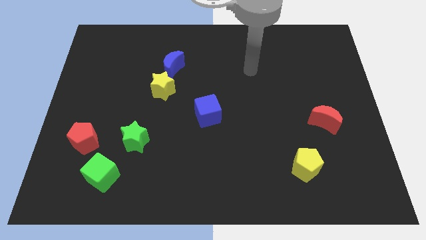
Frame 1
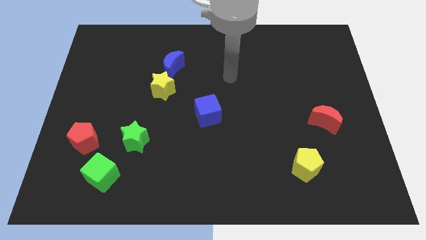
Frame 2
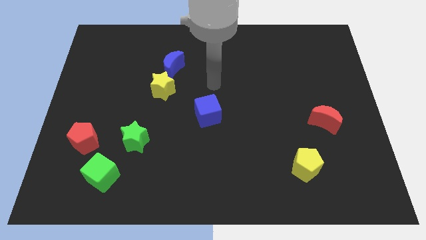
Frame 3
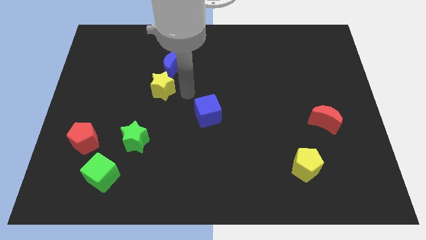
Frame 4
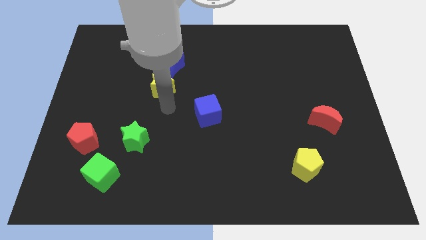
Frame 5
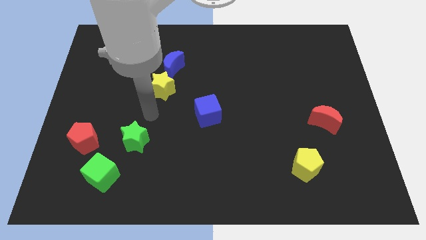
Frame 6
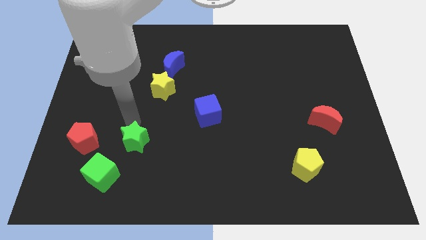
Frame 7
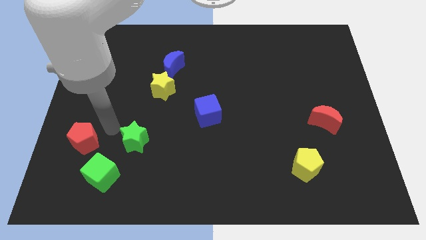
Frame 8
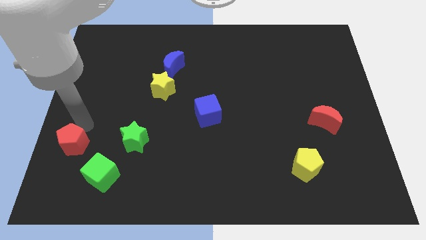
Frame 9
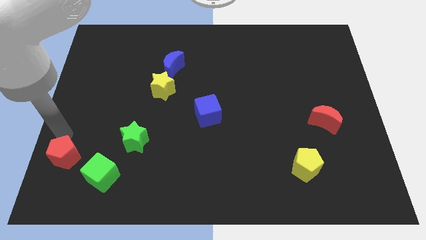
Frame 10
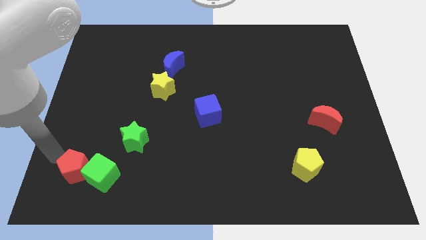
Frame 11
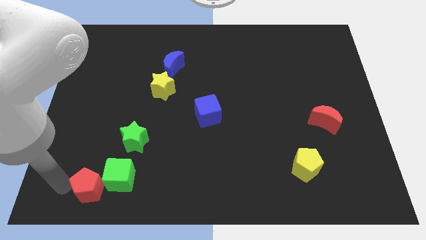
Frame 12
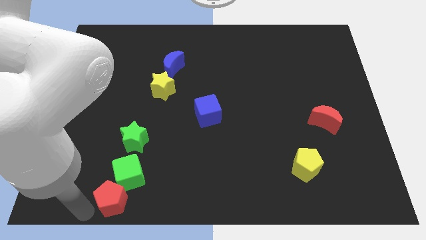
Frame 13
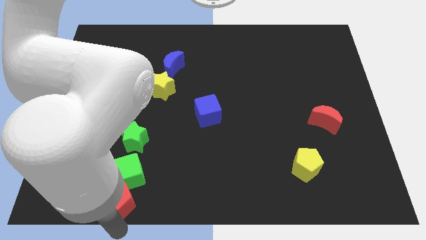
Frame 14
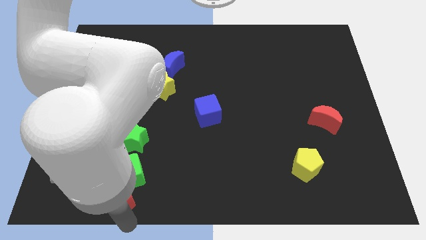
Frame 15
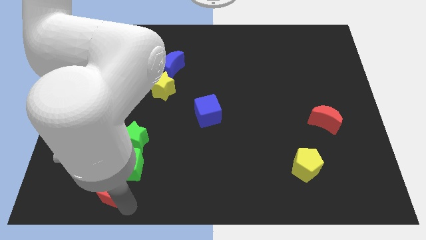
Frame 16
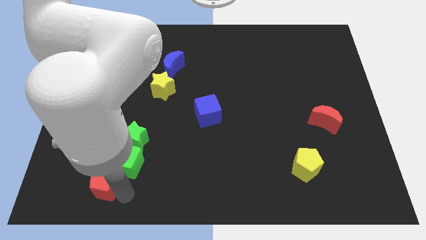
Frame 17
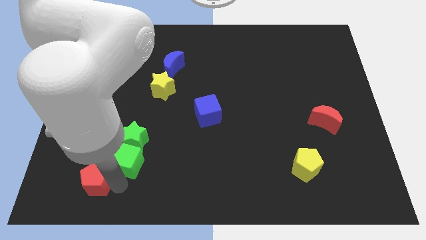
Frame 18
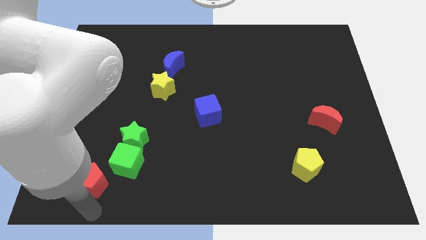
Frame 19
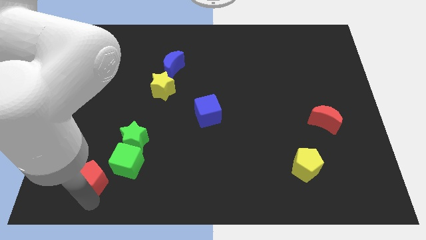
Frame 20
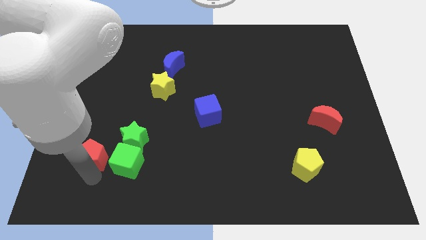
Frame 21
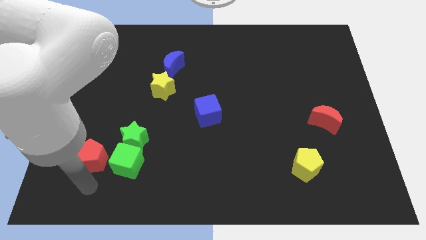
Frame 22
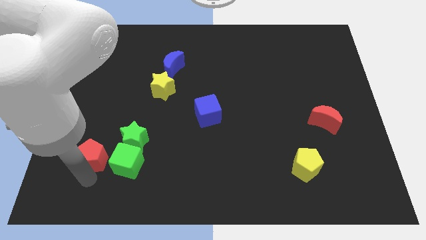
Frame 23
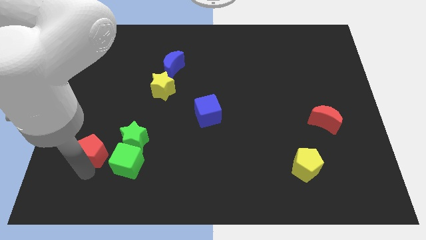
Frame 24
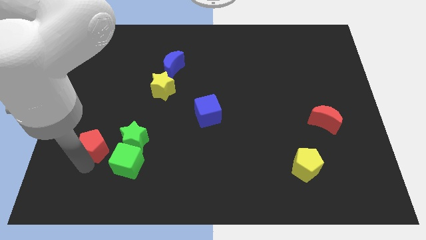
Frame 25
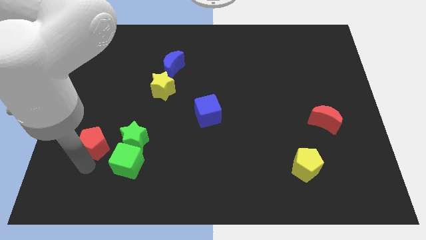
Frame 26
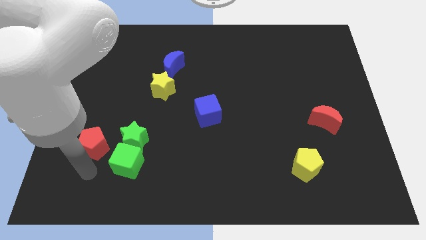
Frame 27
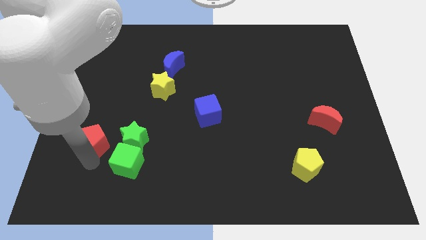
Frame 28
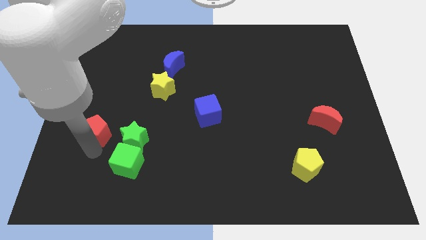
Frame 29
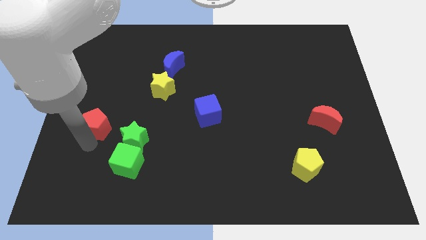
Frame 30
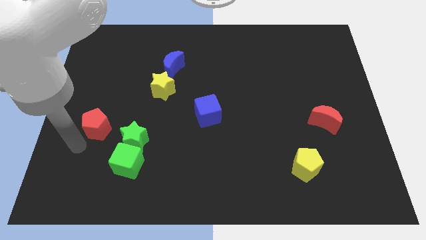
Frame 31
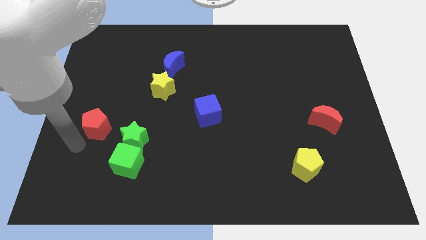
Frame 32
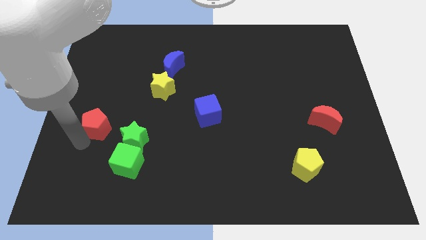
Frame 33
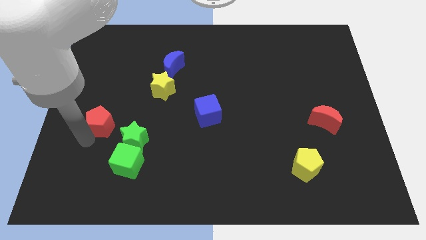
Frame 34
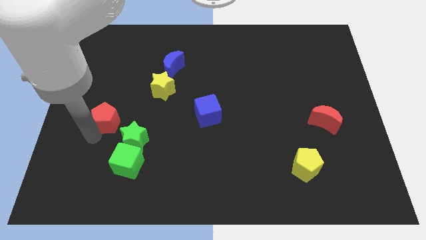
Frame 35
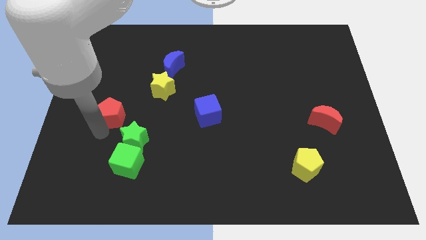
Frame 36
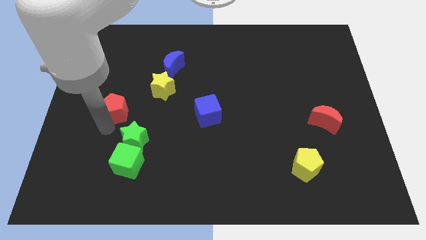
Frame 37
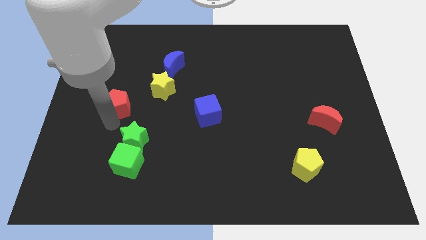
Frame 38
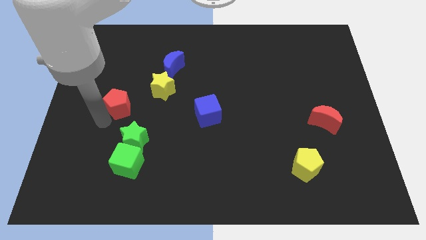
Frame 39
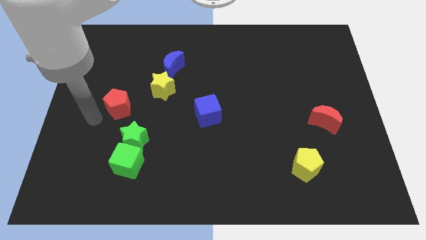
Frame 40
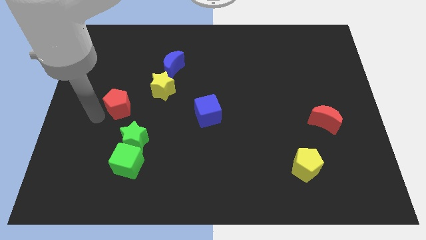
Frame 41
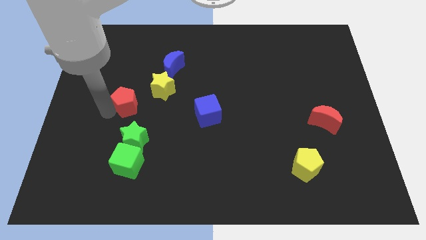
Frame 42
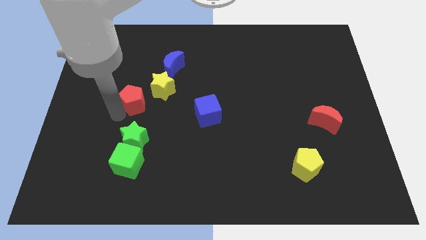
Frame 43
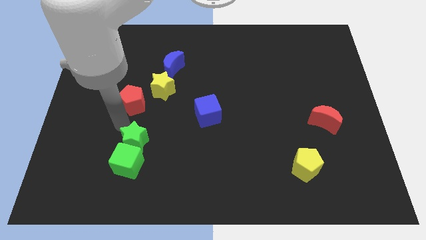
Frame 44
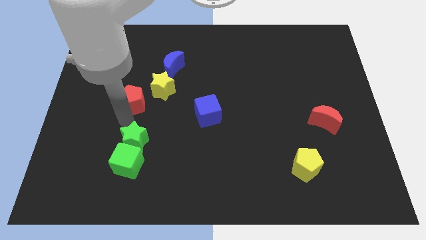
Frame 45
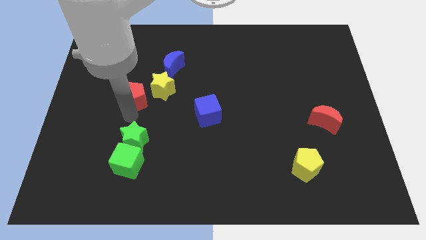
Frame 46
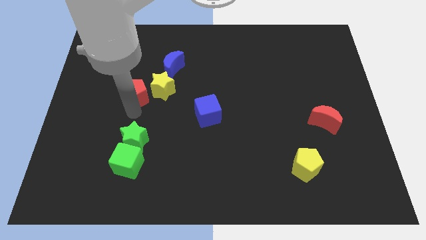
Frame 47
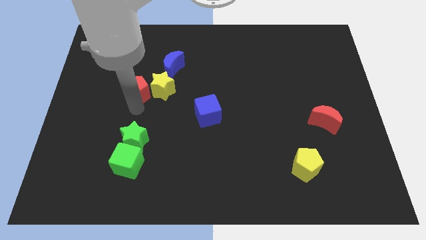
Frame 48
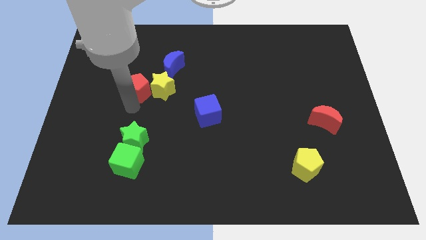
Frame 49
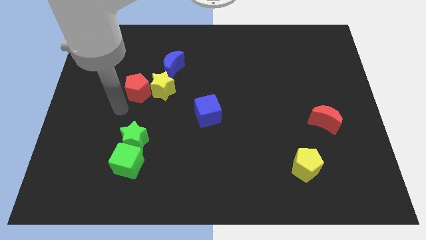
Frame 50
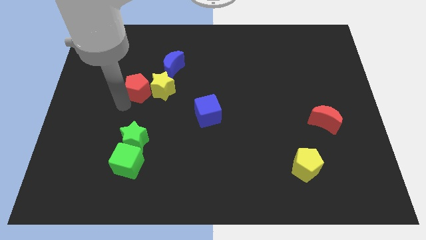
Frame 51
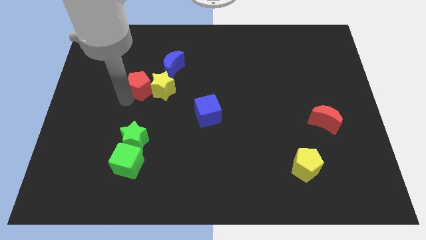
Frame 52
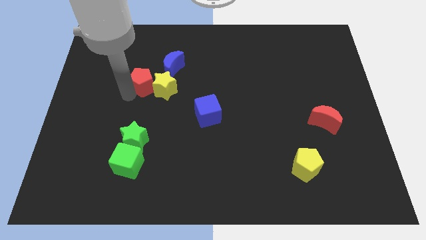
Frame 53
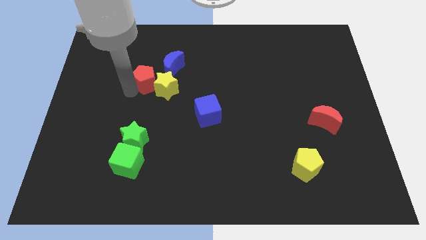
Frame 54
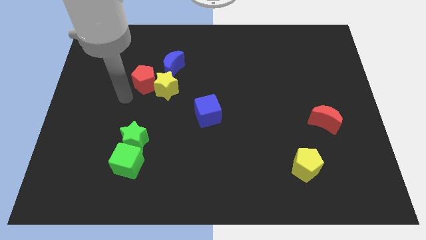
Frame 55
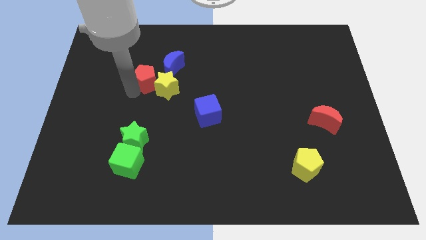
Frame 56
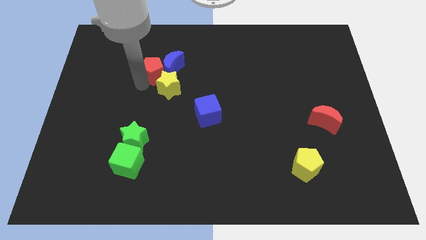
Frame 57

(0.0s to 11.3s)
put the red pentagon to the blue moon

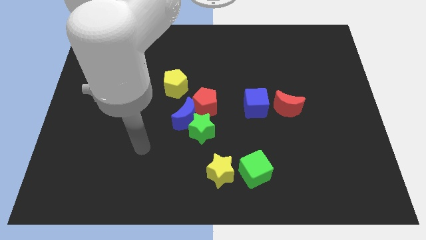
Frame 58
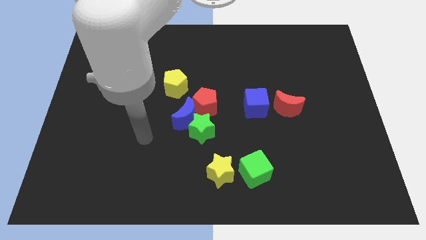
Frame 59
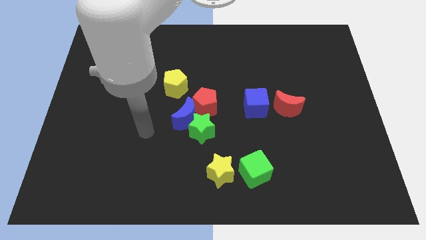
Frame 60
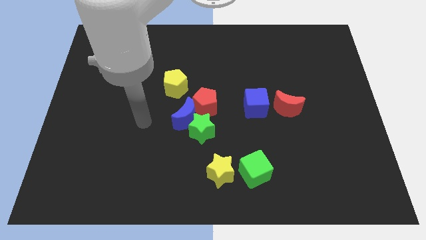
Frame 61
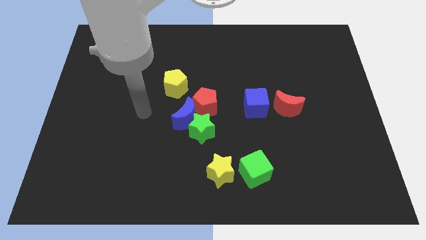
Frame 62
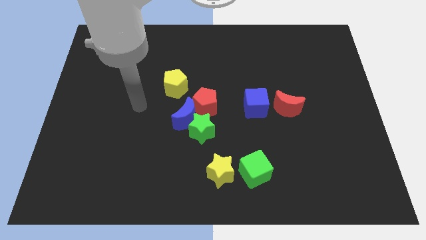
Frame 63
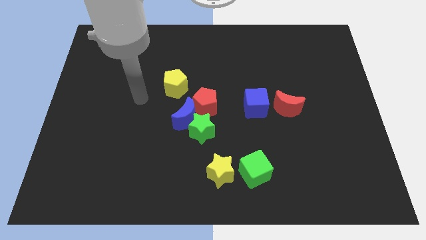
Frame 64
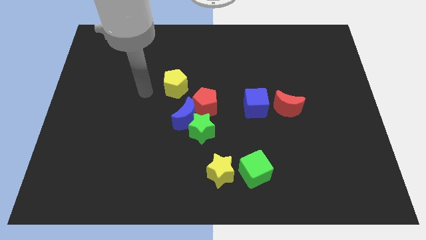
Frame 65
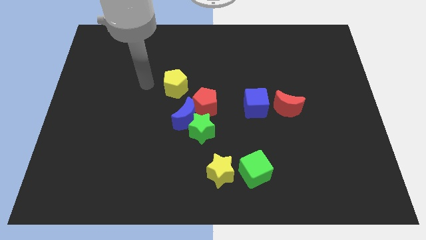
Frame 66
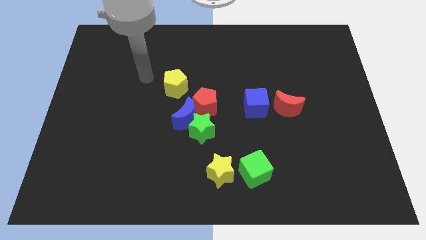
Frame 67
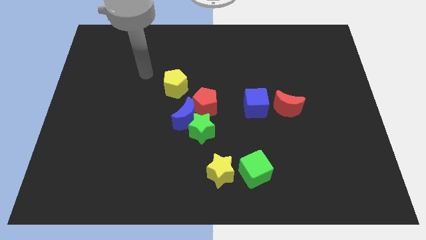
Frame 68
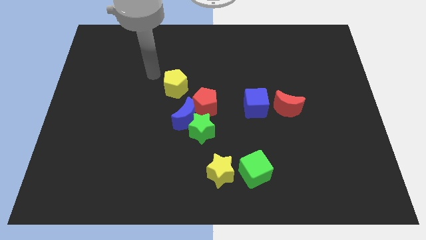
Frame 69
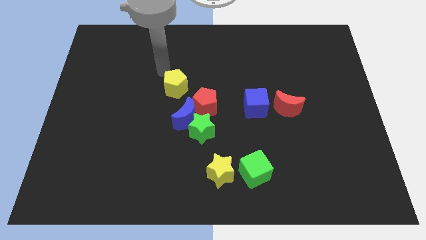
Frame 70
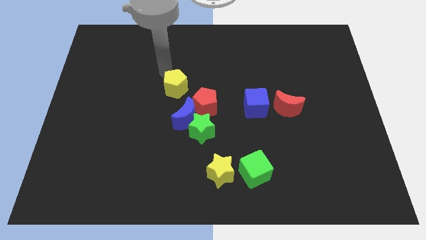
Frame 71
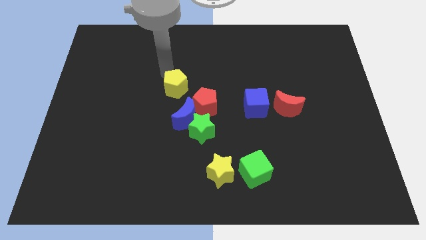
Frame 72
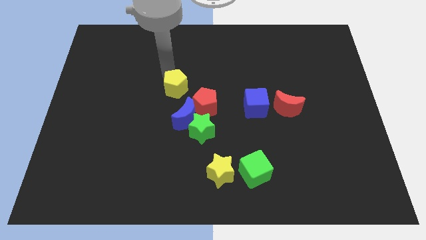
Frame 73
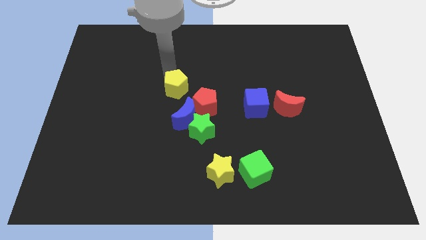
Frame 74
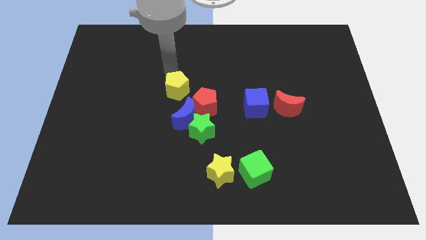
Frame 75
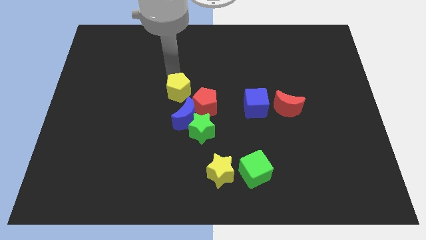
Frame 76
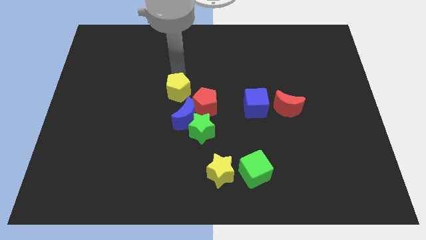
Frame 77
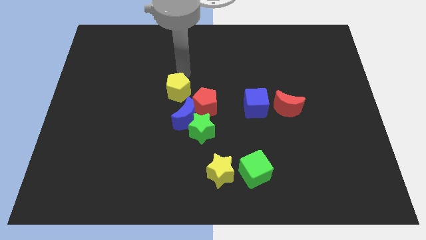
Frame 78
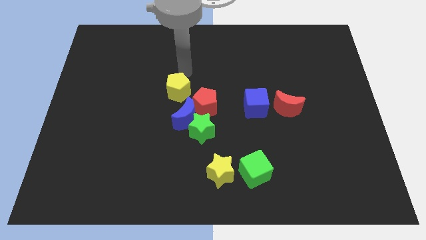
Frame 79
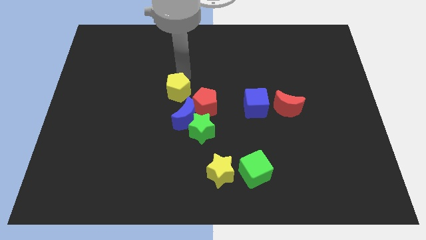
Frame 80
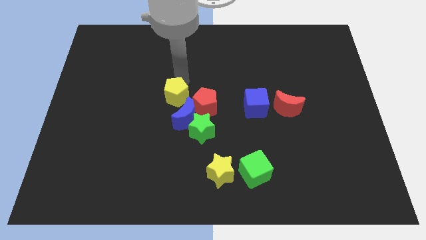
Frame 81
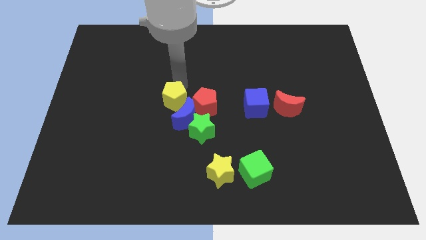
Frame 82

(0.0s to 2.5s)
put the yellow pentagon next to the blue moon
